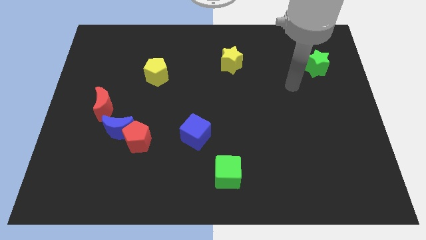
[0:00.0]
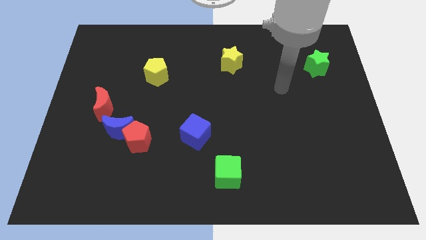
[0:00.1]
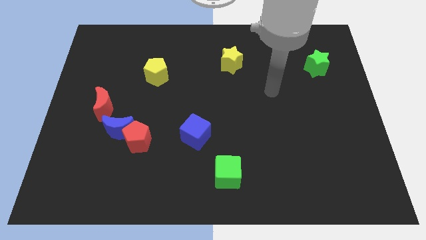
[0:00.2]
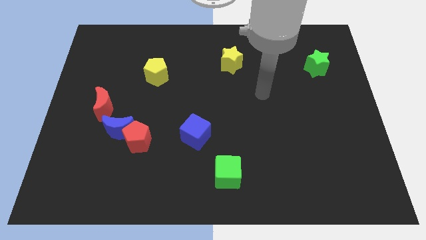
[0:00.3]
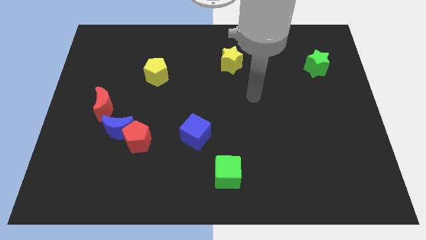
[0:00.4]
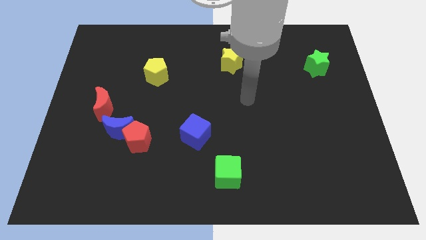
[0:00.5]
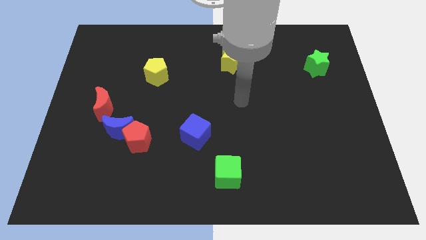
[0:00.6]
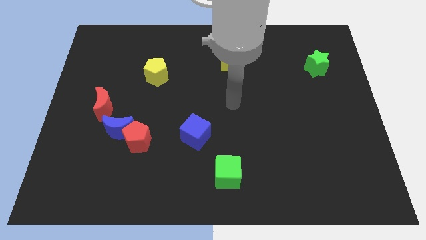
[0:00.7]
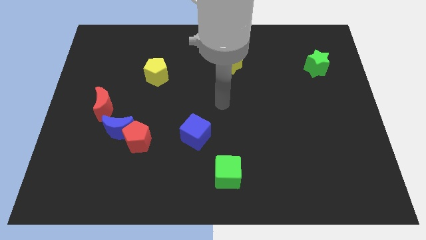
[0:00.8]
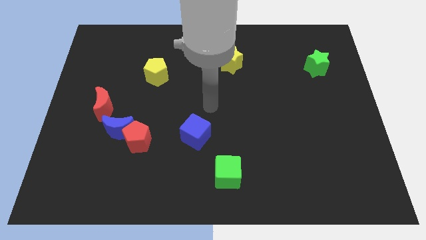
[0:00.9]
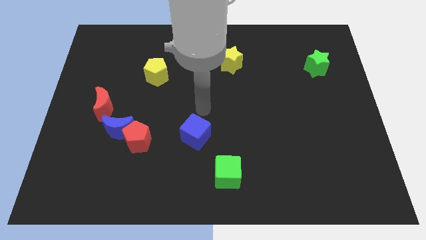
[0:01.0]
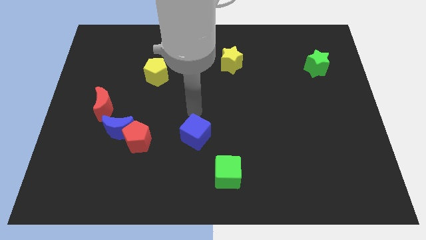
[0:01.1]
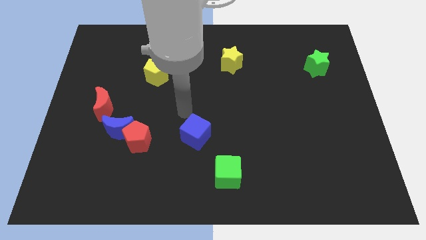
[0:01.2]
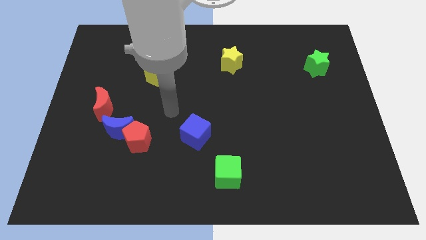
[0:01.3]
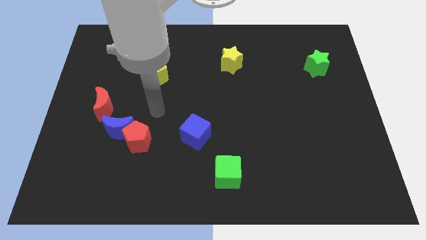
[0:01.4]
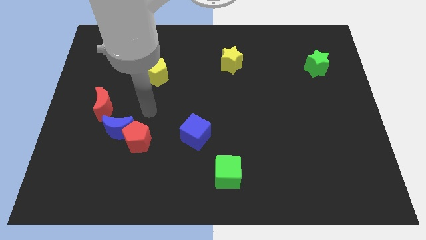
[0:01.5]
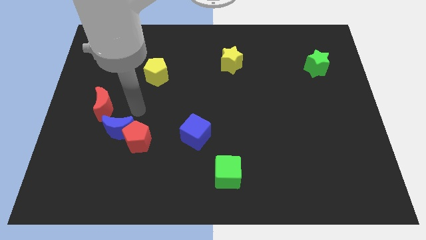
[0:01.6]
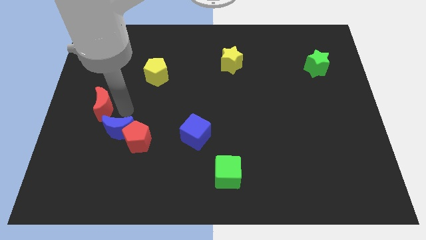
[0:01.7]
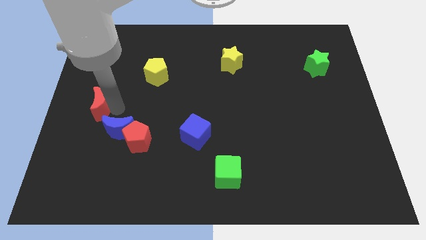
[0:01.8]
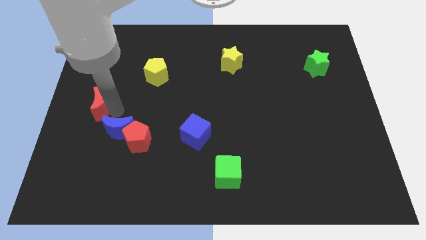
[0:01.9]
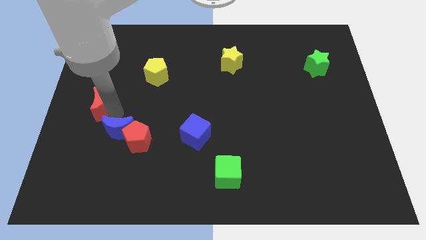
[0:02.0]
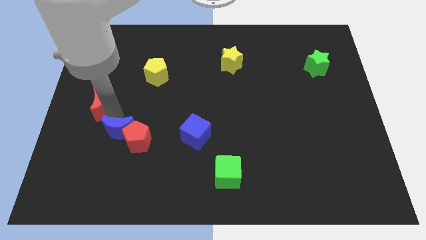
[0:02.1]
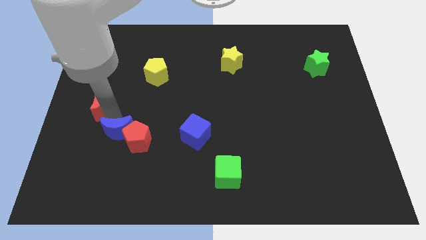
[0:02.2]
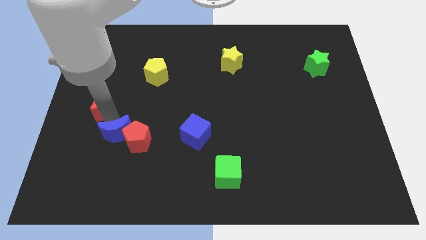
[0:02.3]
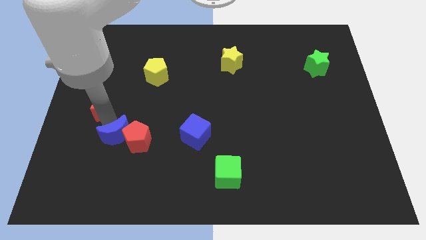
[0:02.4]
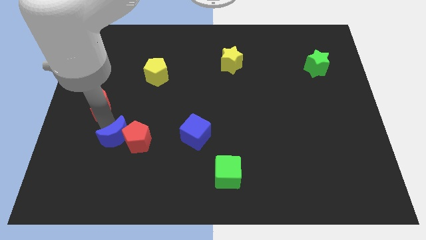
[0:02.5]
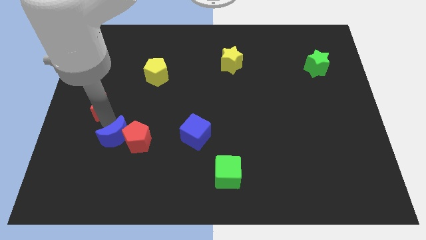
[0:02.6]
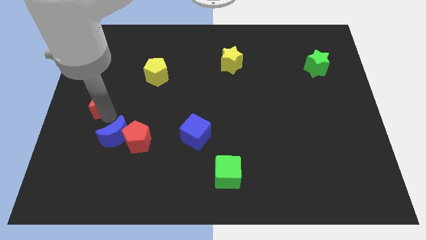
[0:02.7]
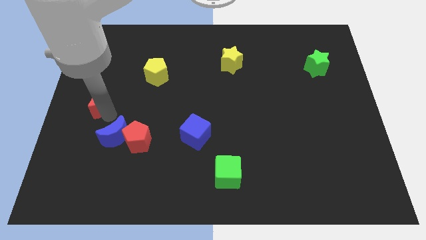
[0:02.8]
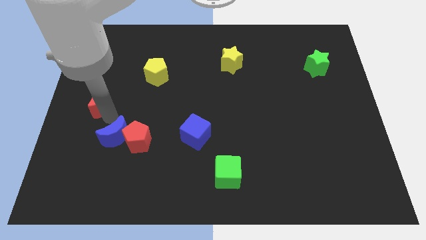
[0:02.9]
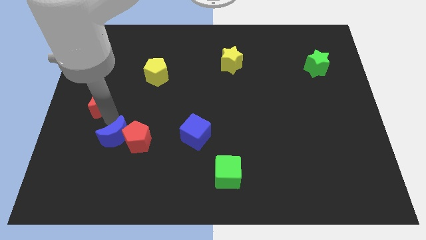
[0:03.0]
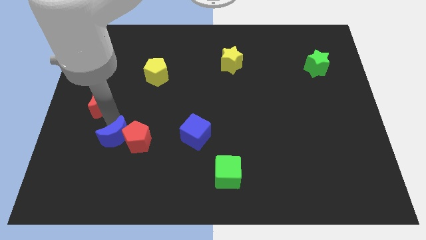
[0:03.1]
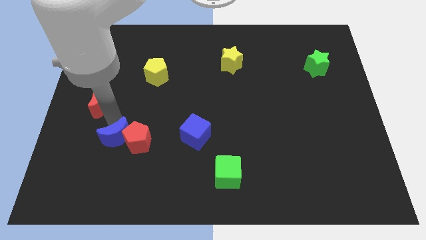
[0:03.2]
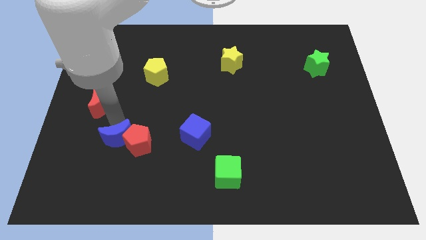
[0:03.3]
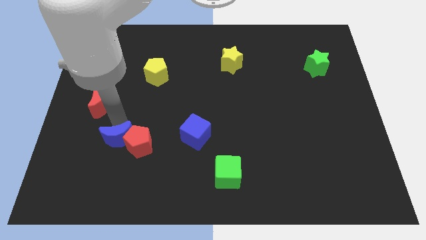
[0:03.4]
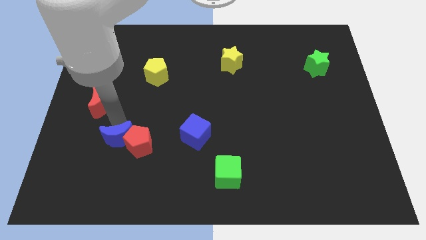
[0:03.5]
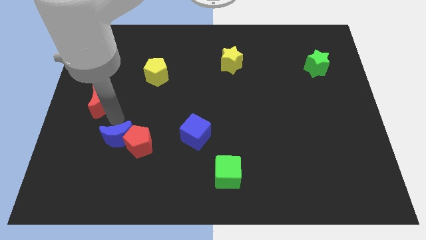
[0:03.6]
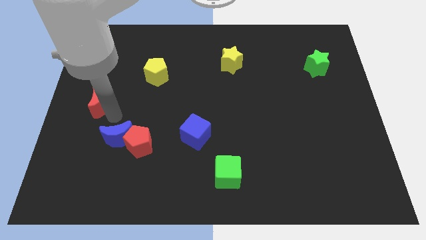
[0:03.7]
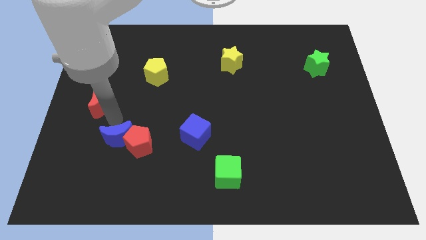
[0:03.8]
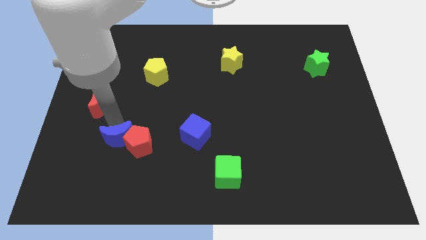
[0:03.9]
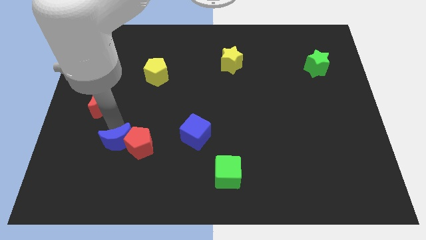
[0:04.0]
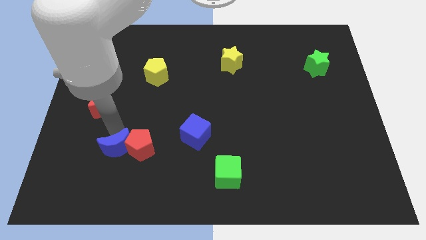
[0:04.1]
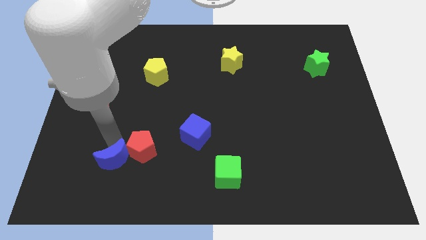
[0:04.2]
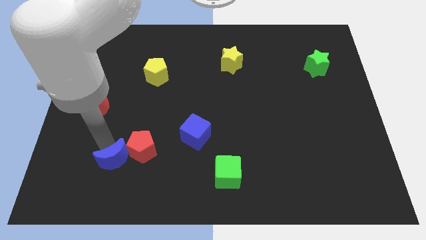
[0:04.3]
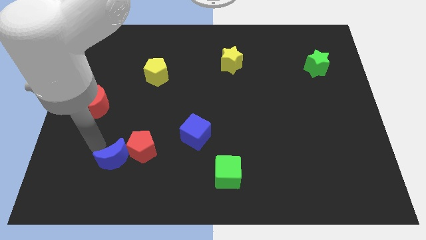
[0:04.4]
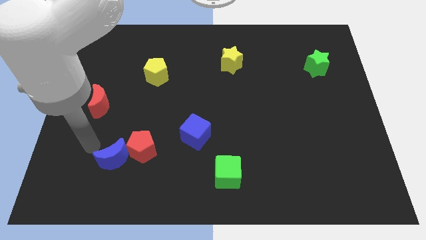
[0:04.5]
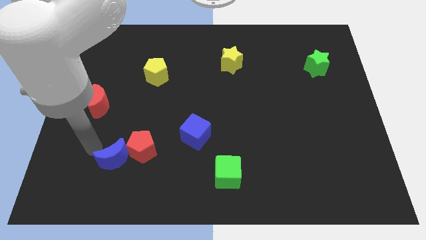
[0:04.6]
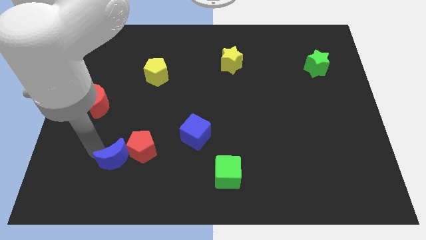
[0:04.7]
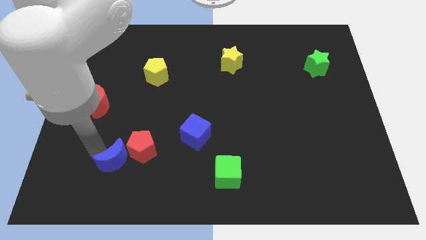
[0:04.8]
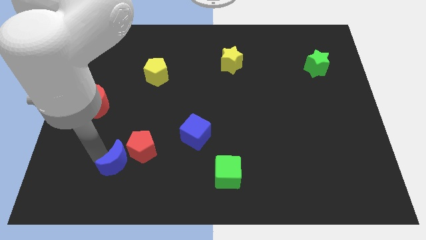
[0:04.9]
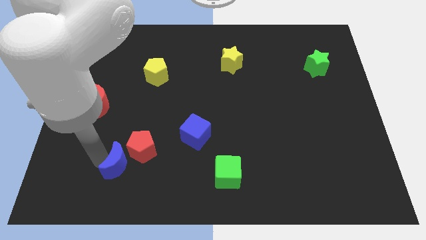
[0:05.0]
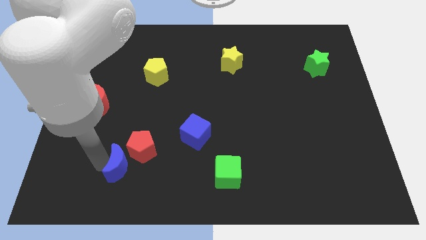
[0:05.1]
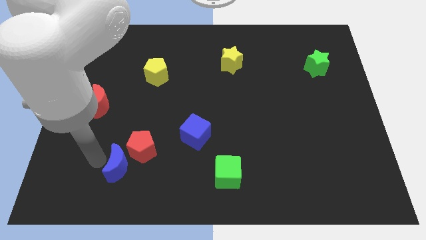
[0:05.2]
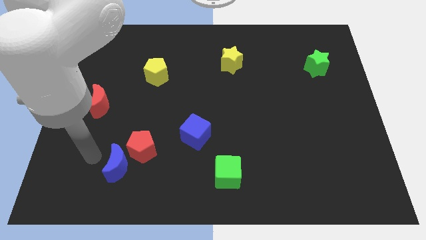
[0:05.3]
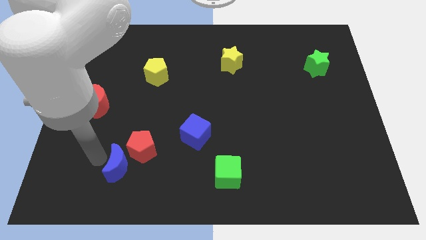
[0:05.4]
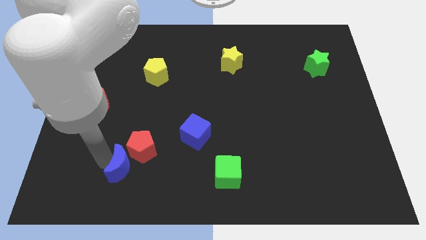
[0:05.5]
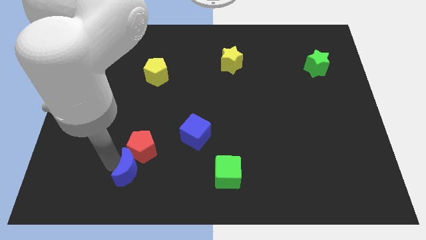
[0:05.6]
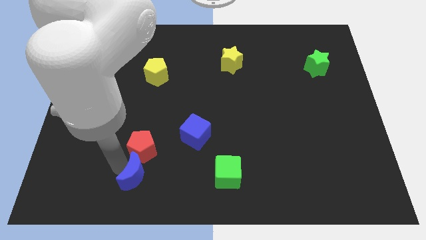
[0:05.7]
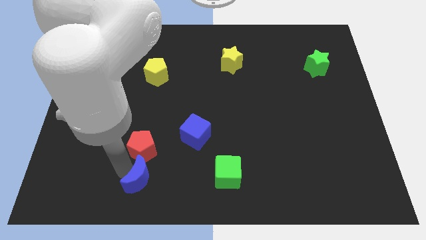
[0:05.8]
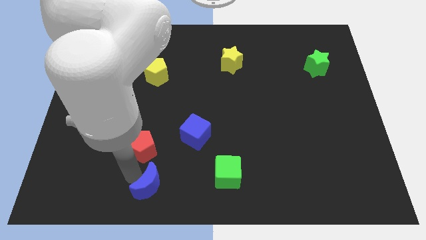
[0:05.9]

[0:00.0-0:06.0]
move the blue moon to the bottom side
